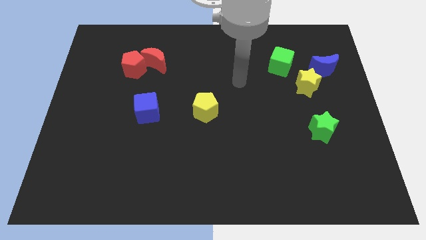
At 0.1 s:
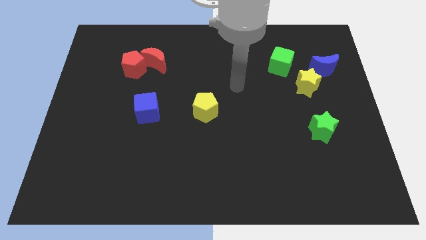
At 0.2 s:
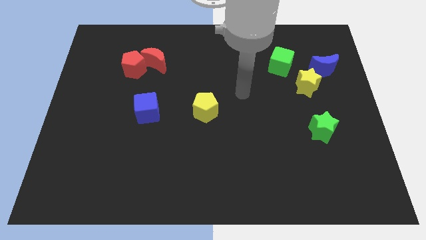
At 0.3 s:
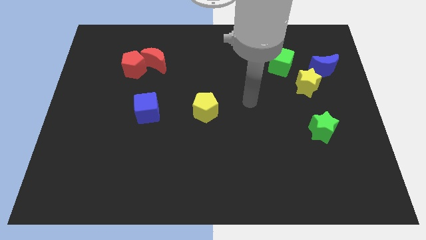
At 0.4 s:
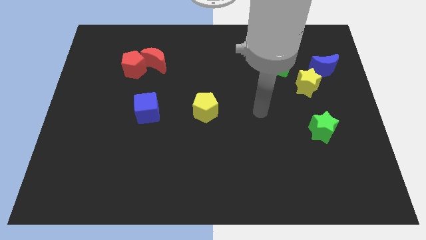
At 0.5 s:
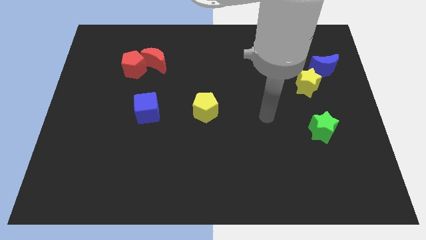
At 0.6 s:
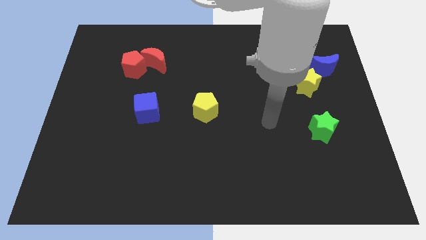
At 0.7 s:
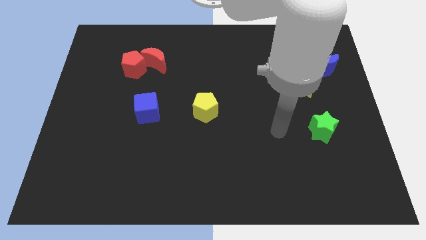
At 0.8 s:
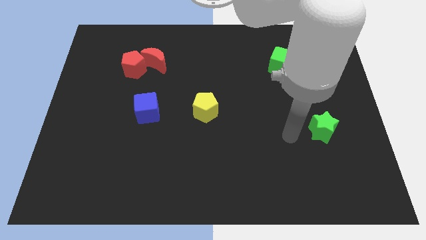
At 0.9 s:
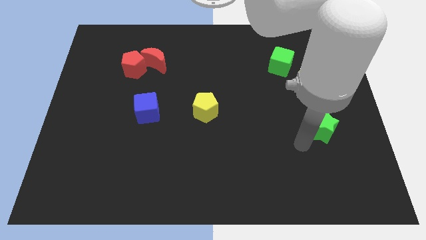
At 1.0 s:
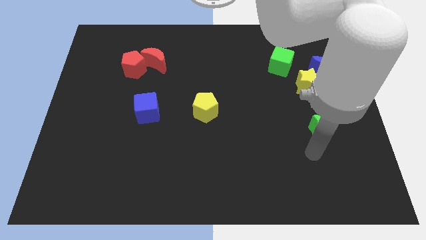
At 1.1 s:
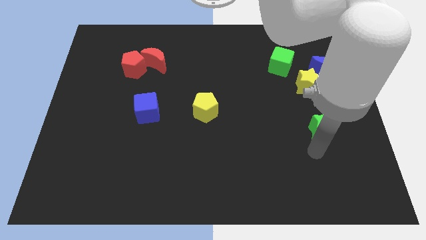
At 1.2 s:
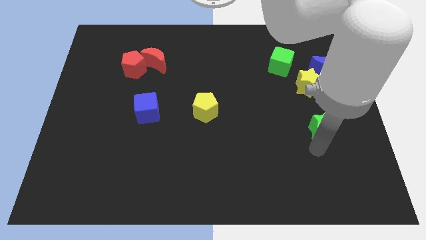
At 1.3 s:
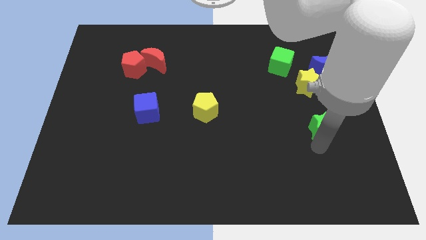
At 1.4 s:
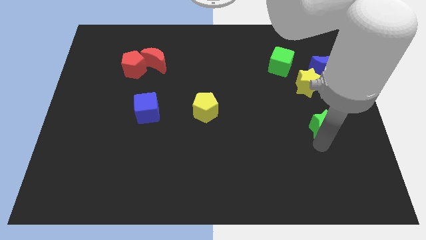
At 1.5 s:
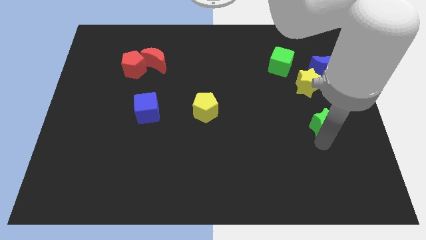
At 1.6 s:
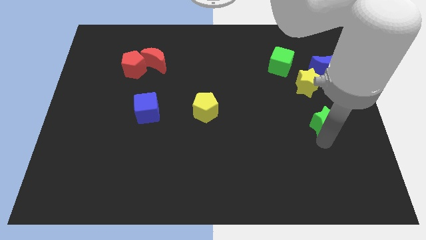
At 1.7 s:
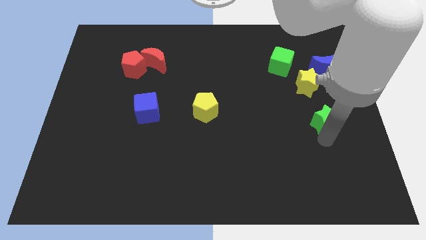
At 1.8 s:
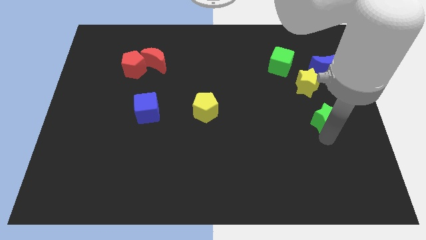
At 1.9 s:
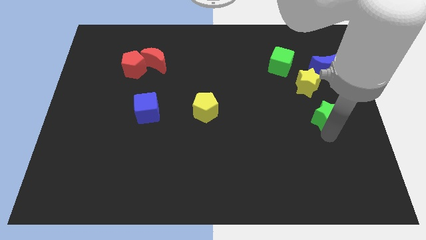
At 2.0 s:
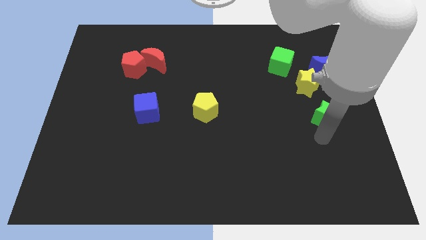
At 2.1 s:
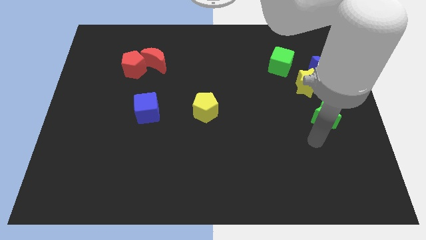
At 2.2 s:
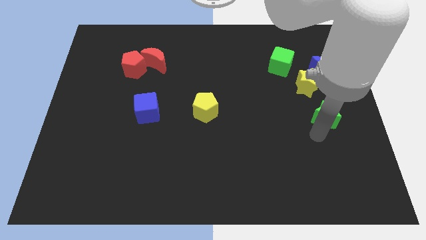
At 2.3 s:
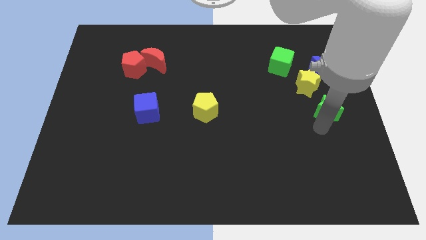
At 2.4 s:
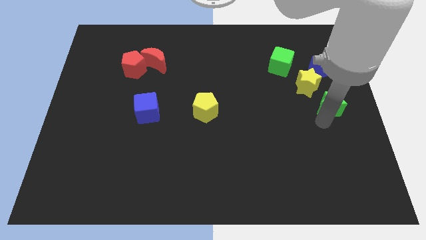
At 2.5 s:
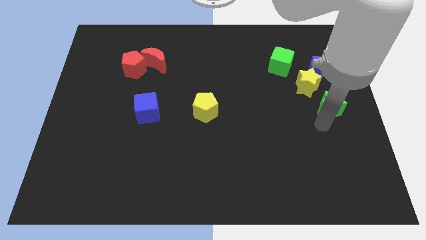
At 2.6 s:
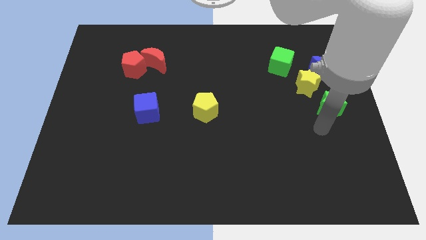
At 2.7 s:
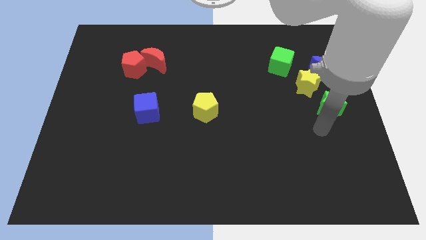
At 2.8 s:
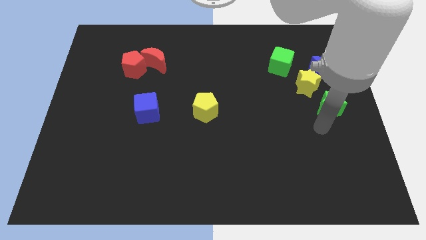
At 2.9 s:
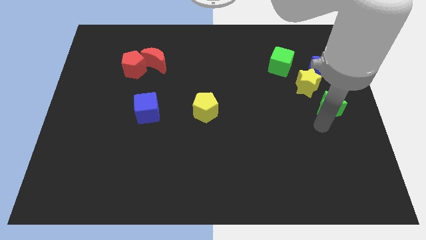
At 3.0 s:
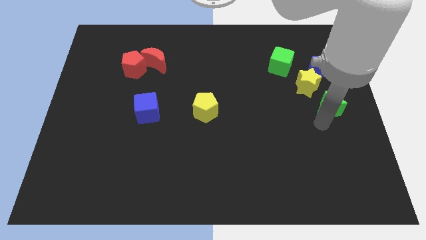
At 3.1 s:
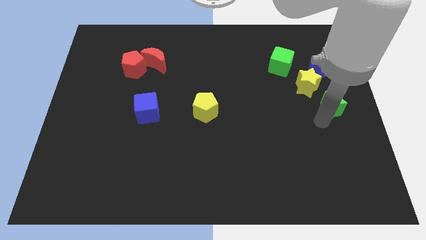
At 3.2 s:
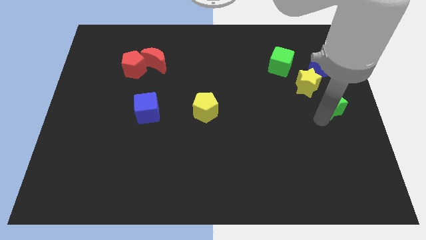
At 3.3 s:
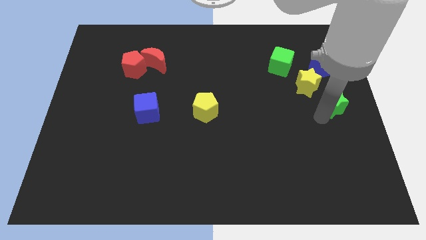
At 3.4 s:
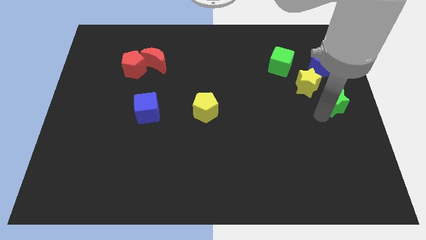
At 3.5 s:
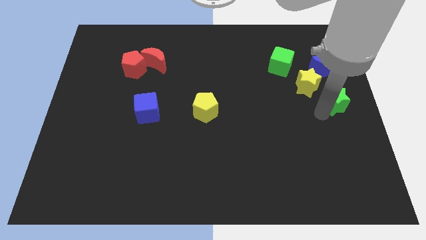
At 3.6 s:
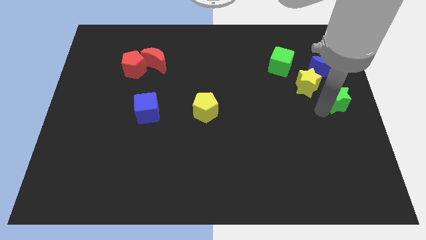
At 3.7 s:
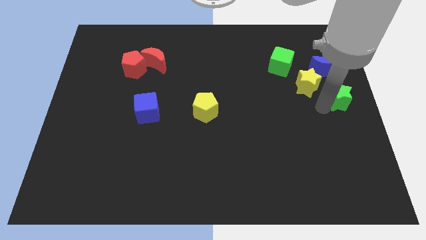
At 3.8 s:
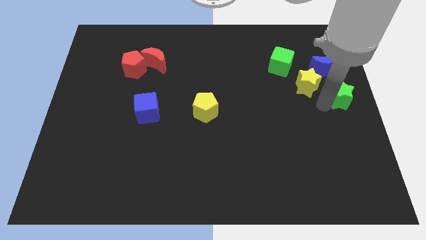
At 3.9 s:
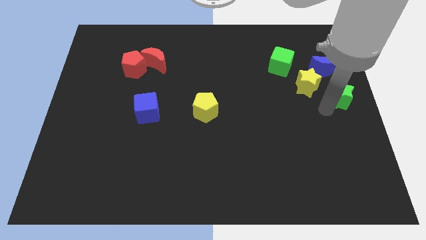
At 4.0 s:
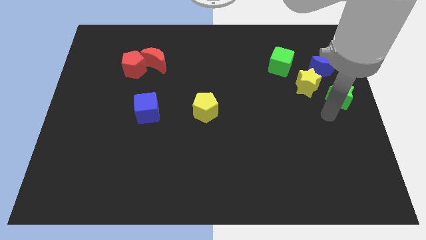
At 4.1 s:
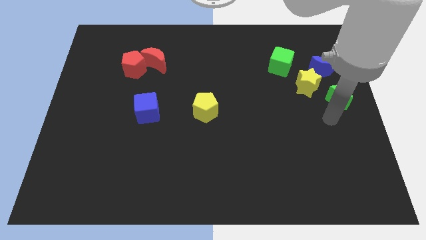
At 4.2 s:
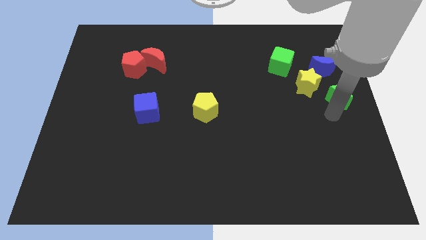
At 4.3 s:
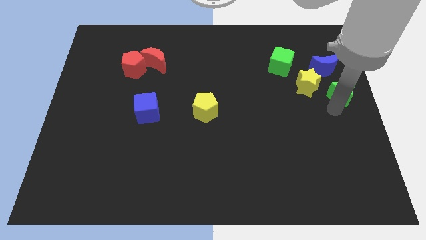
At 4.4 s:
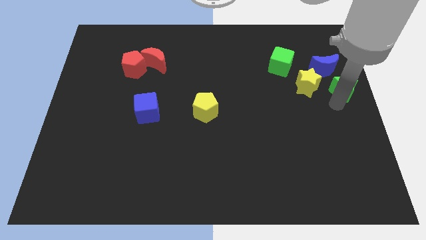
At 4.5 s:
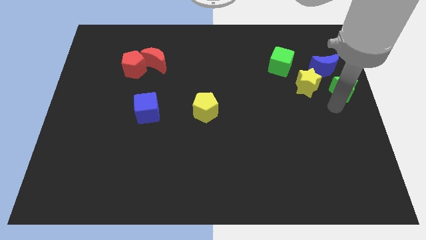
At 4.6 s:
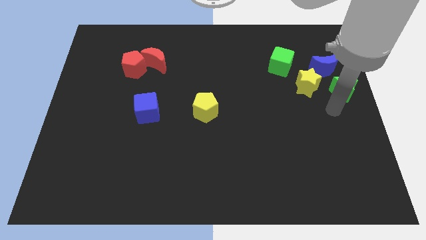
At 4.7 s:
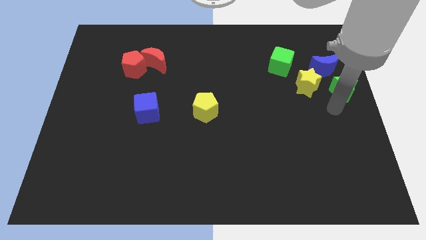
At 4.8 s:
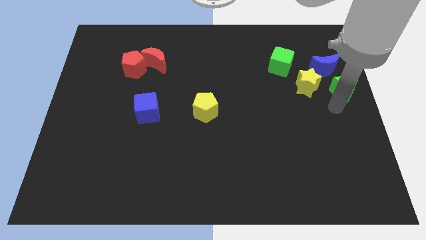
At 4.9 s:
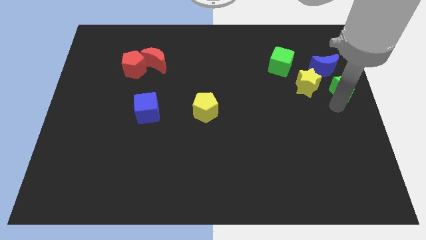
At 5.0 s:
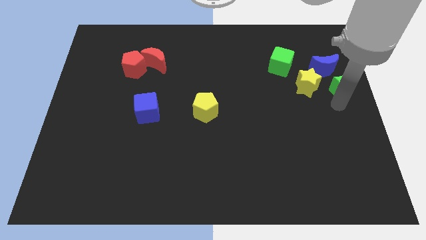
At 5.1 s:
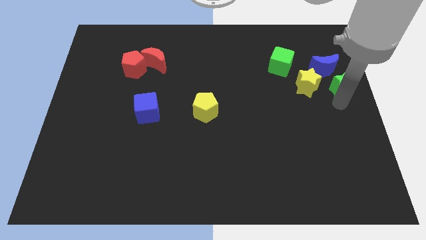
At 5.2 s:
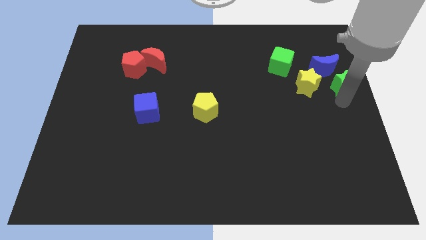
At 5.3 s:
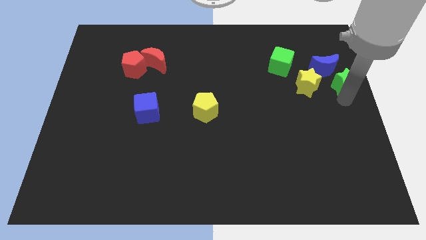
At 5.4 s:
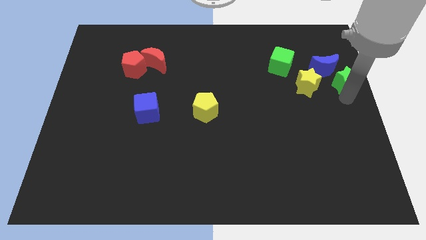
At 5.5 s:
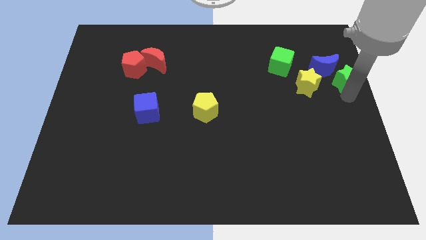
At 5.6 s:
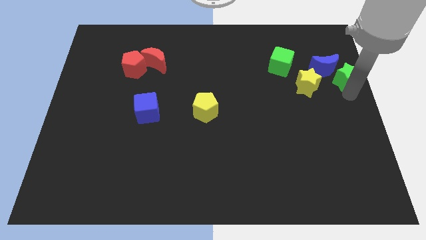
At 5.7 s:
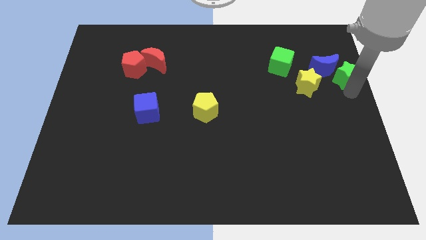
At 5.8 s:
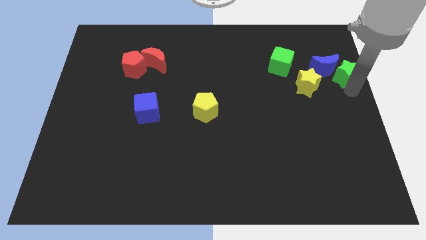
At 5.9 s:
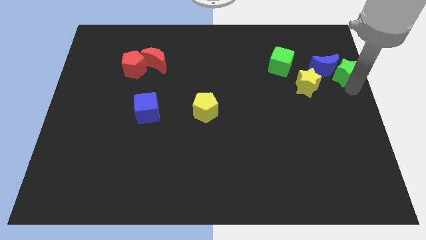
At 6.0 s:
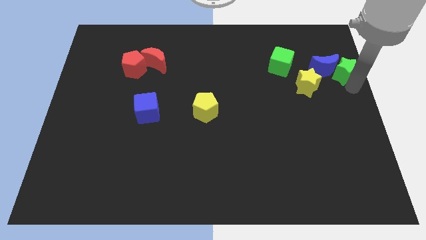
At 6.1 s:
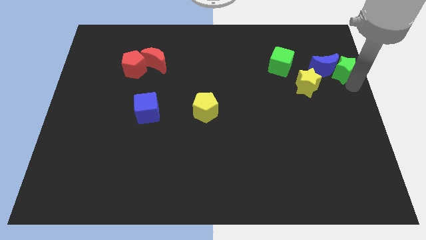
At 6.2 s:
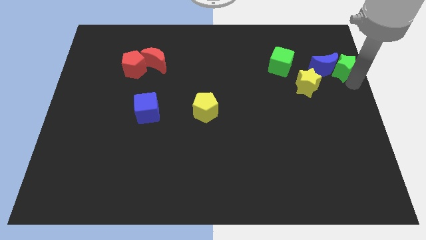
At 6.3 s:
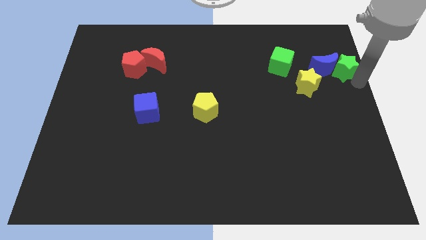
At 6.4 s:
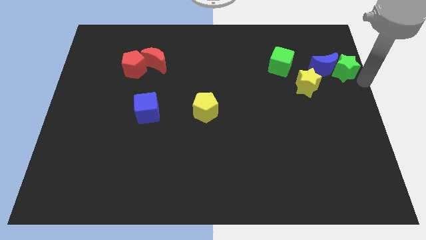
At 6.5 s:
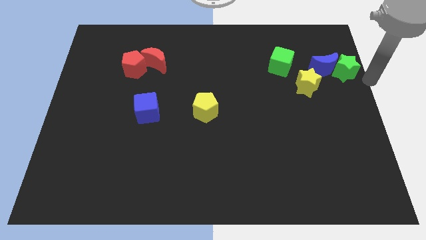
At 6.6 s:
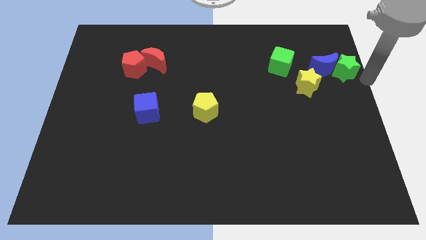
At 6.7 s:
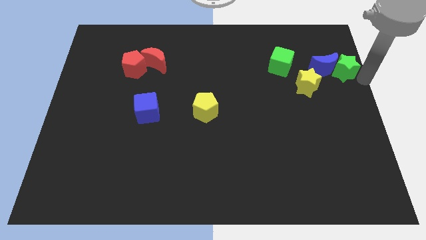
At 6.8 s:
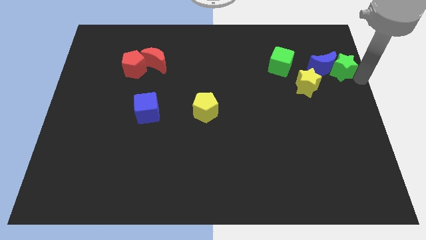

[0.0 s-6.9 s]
push the green star right of the green cube

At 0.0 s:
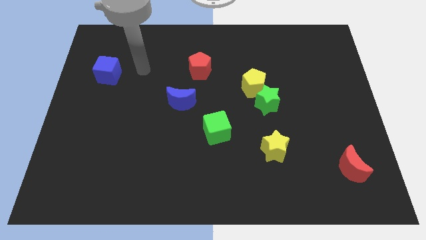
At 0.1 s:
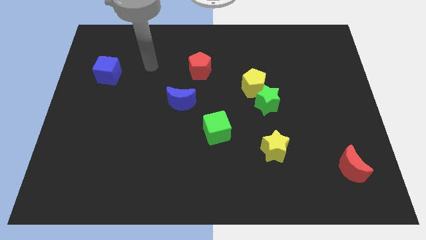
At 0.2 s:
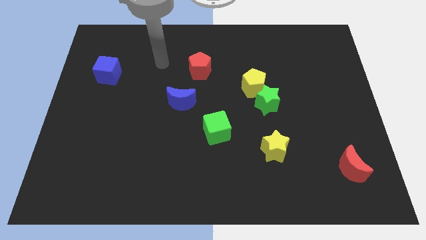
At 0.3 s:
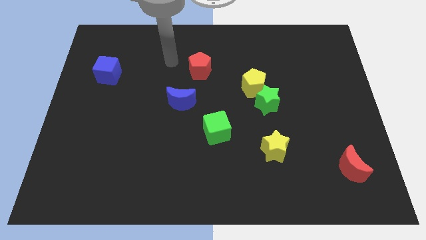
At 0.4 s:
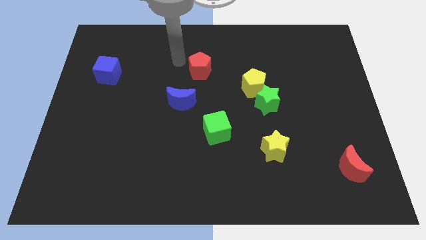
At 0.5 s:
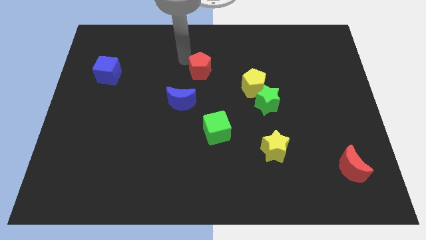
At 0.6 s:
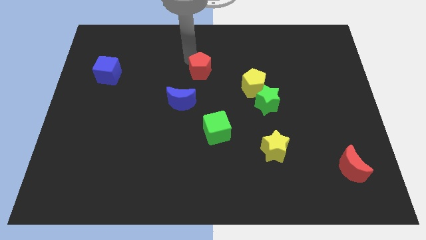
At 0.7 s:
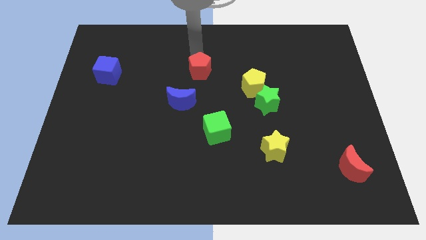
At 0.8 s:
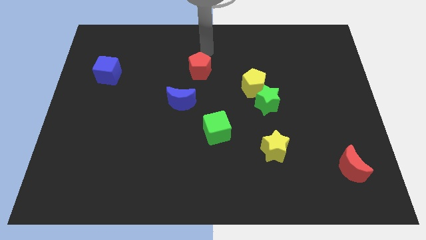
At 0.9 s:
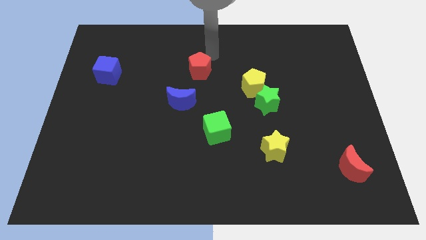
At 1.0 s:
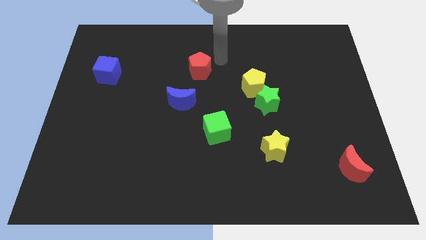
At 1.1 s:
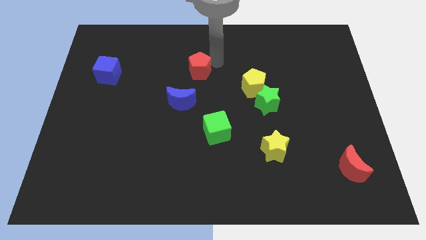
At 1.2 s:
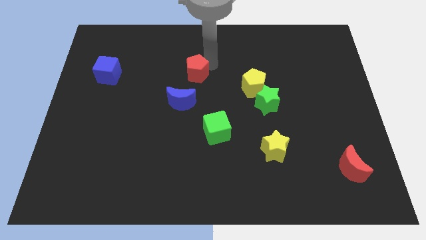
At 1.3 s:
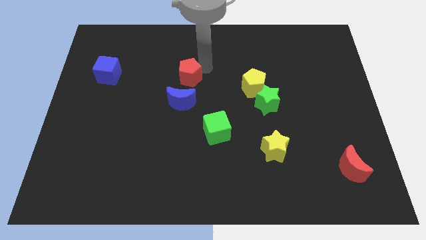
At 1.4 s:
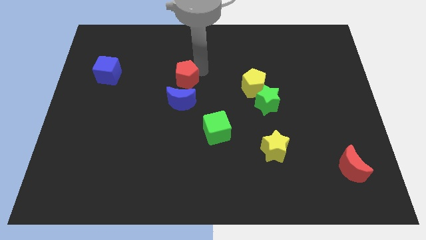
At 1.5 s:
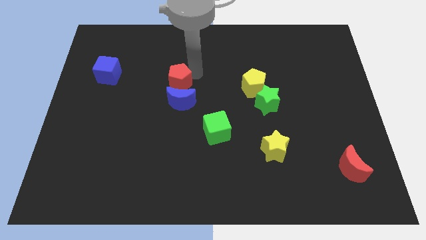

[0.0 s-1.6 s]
slide the red pentagon diagonally up and to the left of the blue moon
